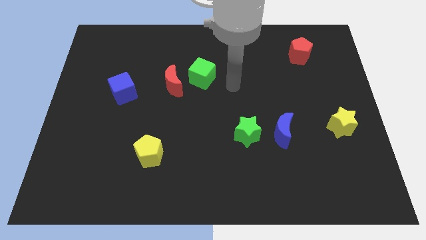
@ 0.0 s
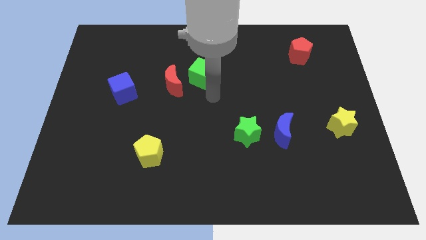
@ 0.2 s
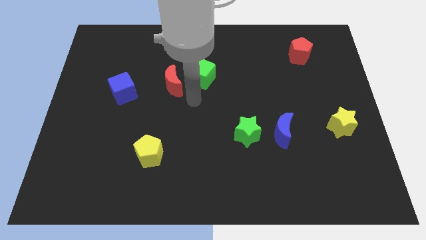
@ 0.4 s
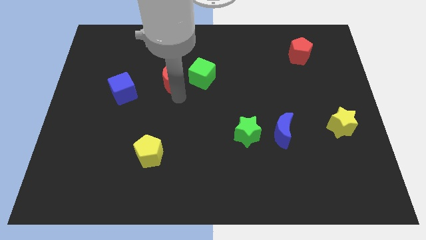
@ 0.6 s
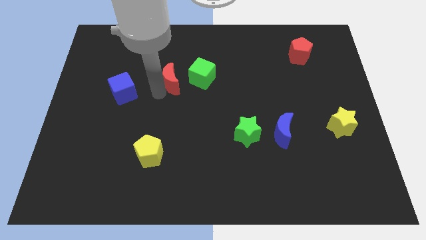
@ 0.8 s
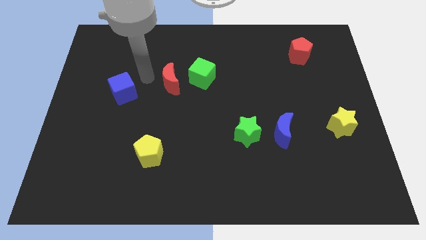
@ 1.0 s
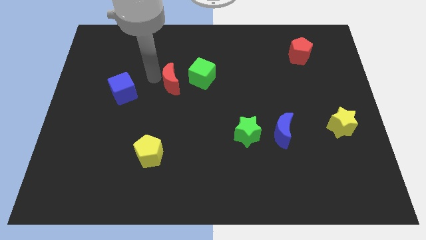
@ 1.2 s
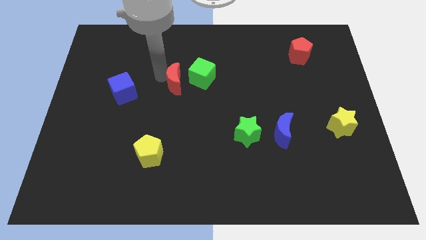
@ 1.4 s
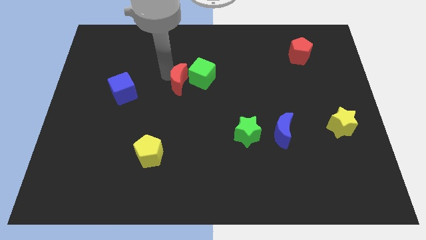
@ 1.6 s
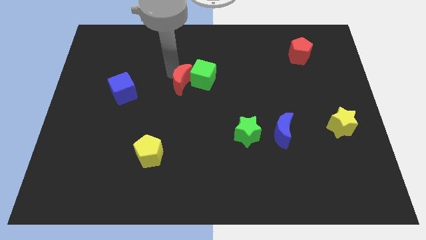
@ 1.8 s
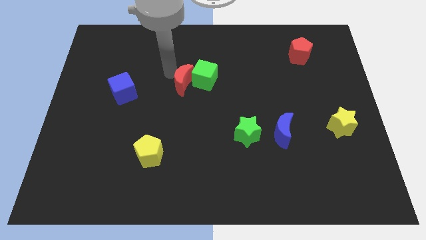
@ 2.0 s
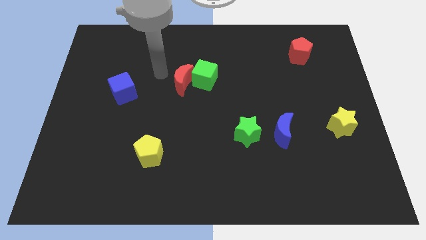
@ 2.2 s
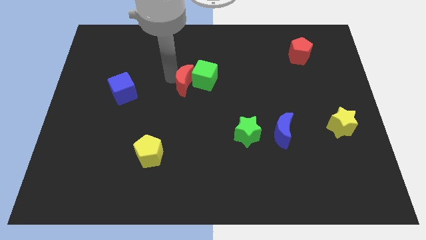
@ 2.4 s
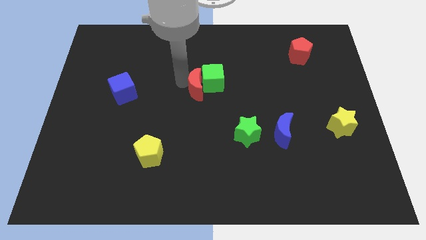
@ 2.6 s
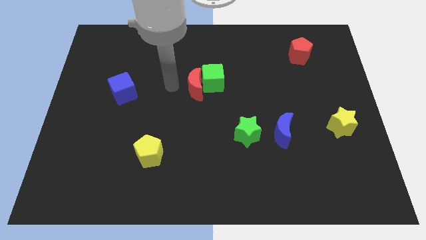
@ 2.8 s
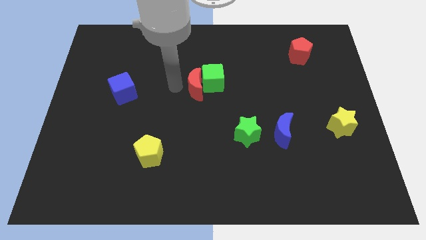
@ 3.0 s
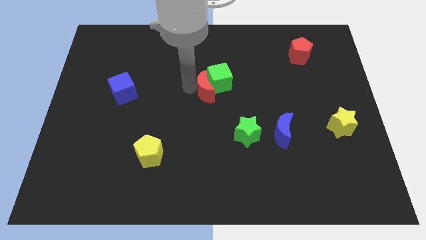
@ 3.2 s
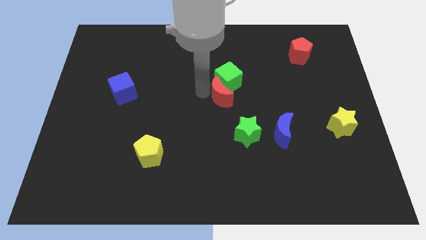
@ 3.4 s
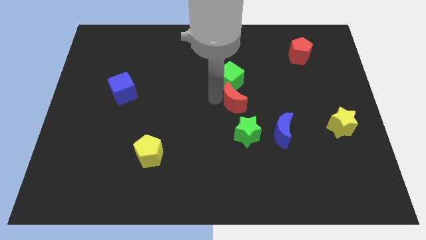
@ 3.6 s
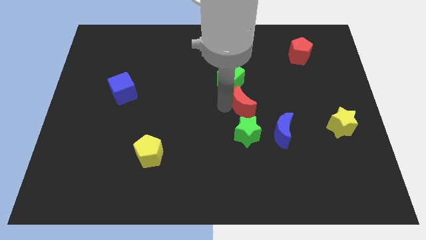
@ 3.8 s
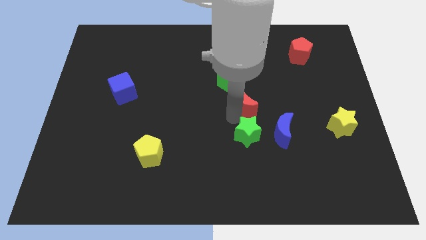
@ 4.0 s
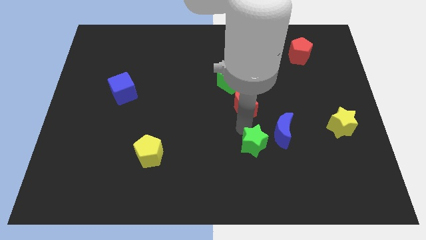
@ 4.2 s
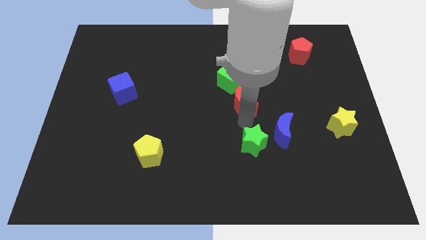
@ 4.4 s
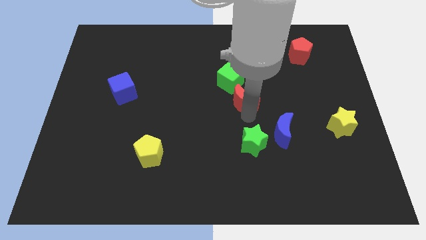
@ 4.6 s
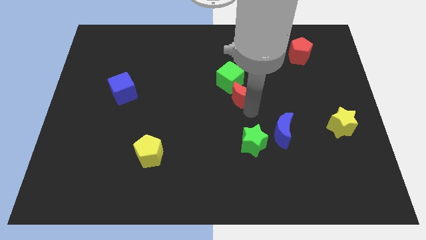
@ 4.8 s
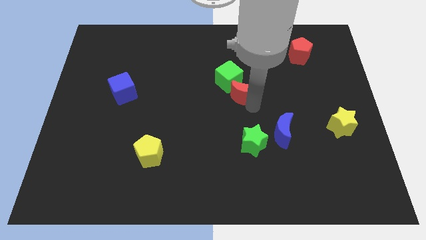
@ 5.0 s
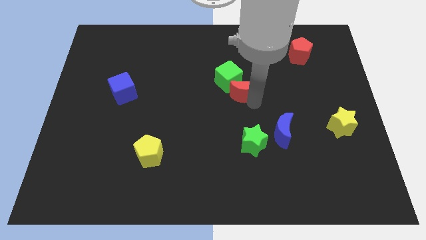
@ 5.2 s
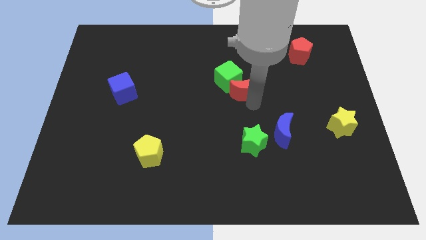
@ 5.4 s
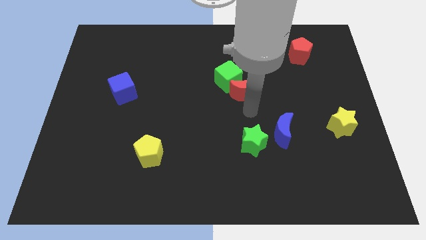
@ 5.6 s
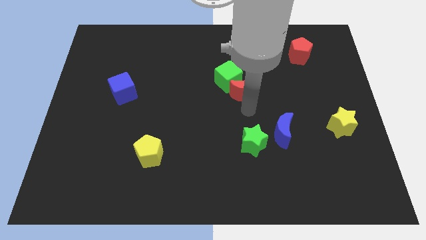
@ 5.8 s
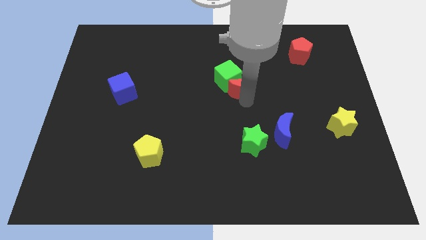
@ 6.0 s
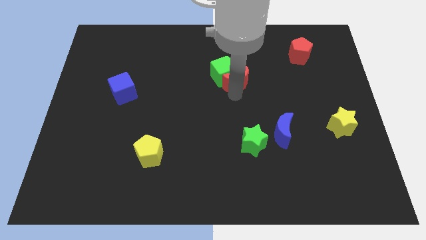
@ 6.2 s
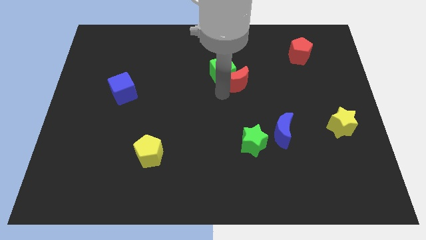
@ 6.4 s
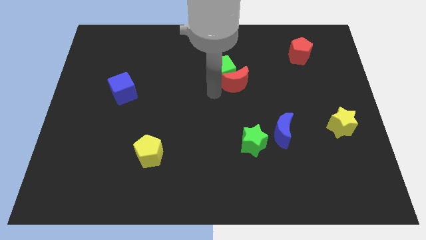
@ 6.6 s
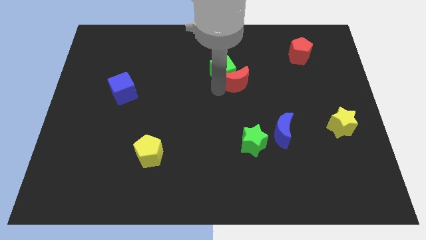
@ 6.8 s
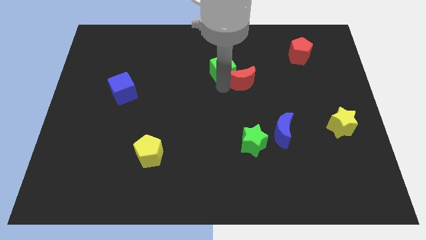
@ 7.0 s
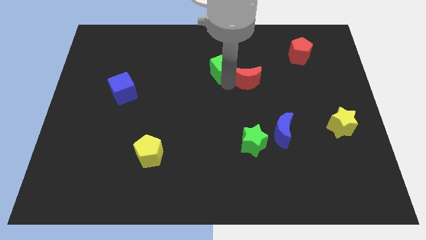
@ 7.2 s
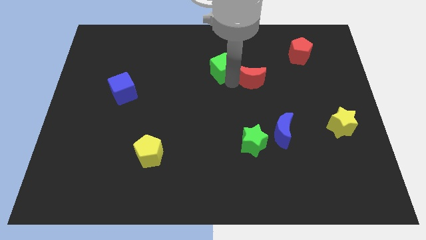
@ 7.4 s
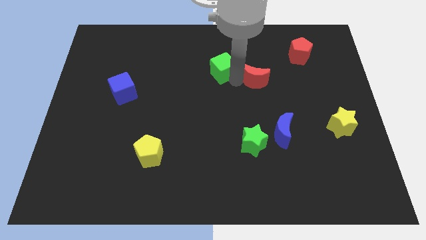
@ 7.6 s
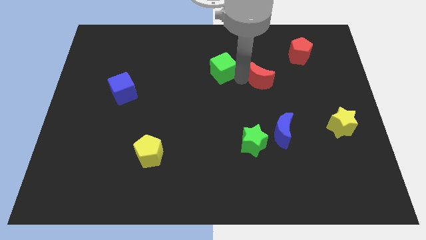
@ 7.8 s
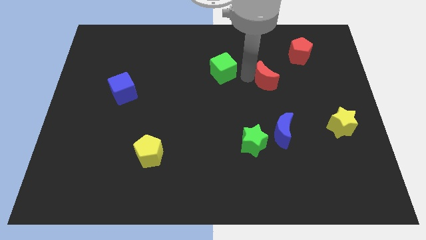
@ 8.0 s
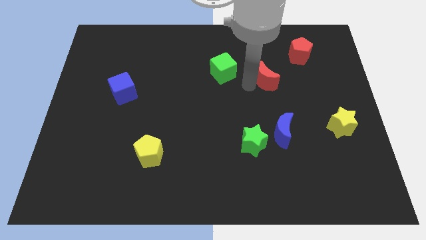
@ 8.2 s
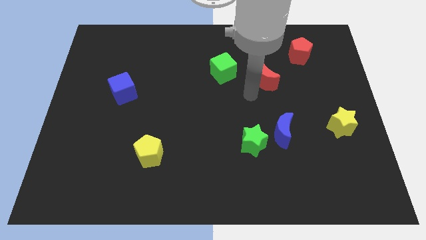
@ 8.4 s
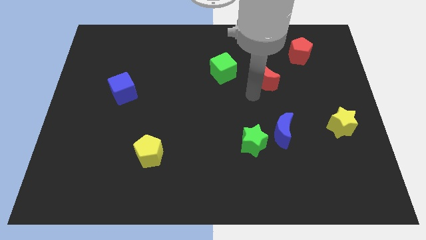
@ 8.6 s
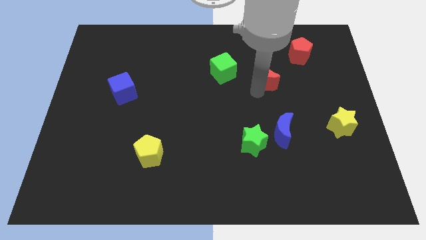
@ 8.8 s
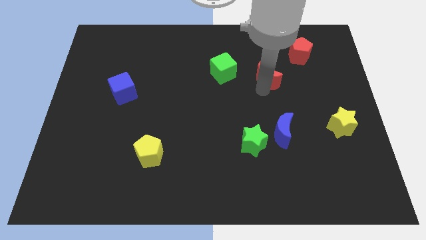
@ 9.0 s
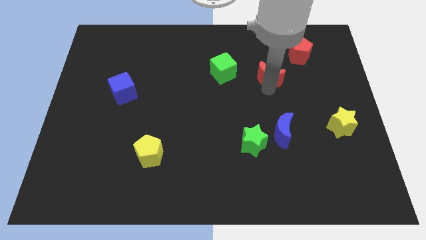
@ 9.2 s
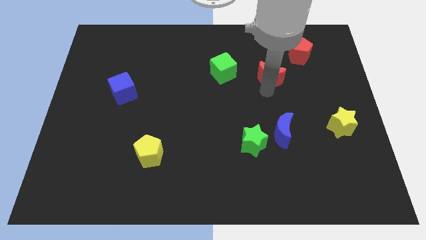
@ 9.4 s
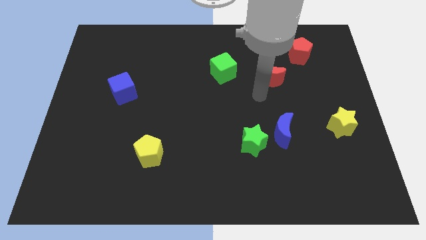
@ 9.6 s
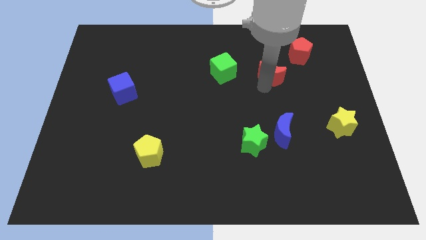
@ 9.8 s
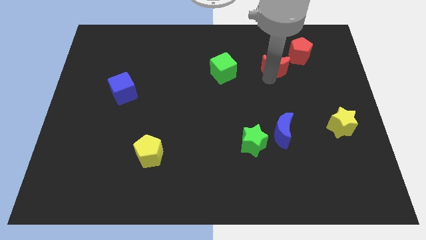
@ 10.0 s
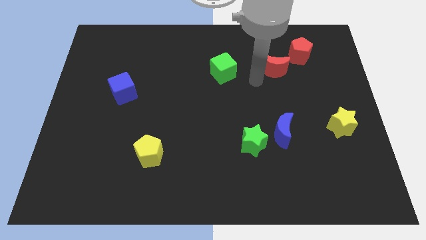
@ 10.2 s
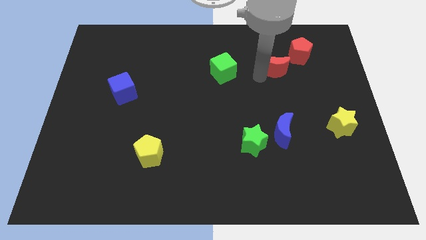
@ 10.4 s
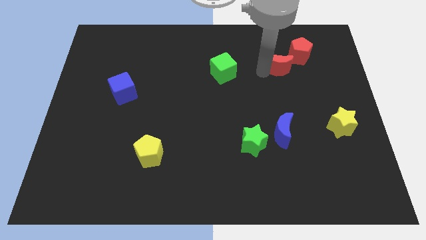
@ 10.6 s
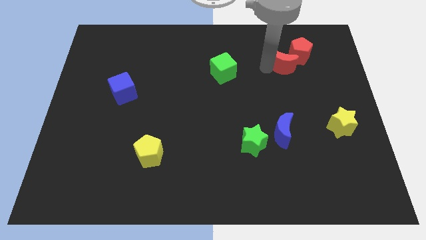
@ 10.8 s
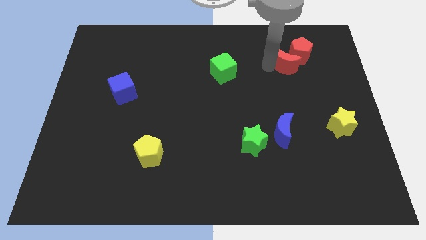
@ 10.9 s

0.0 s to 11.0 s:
move the red moon to the red pentagon

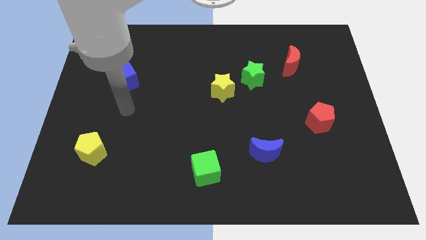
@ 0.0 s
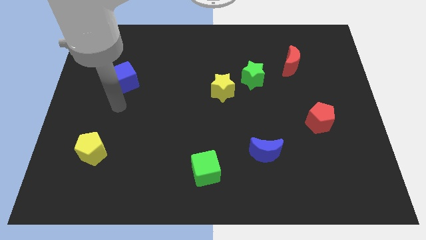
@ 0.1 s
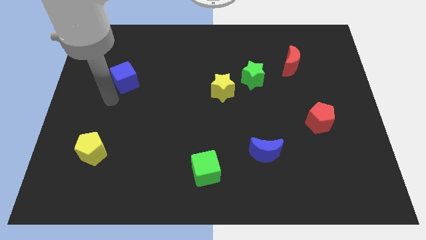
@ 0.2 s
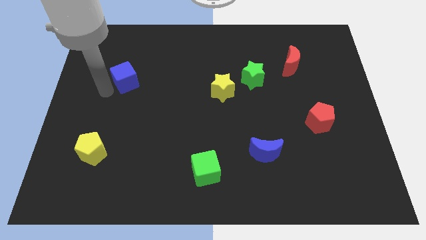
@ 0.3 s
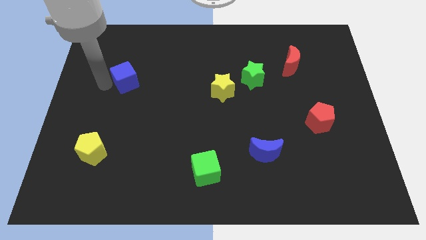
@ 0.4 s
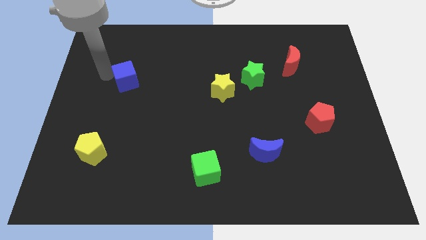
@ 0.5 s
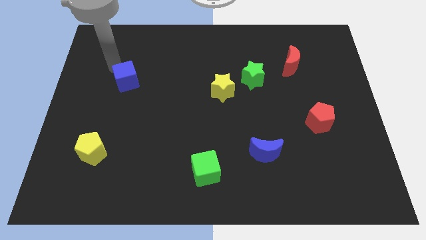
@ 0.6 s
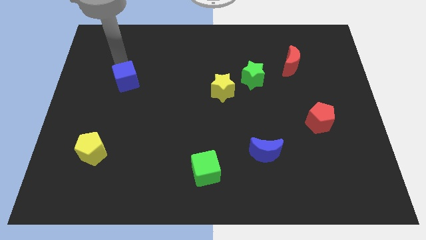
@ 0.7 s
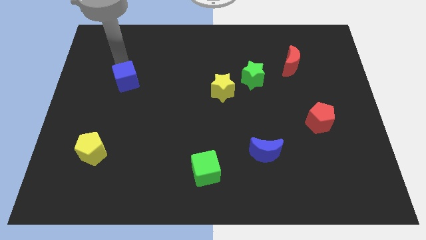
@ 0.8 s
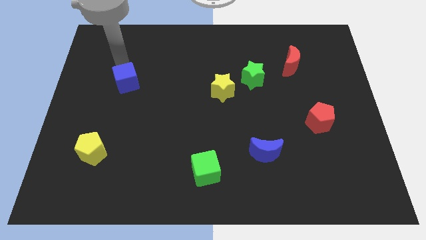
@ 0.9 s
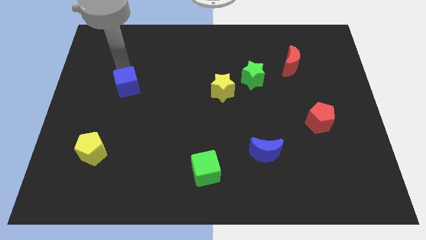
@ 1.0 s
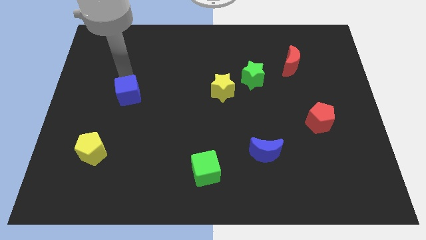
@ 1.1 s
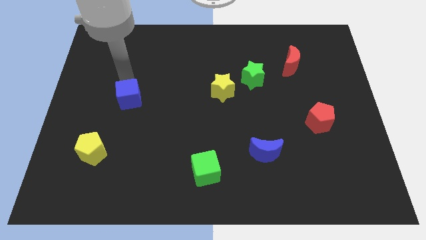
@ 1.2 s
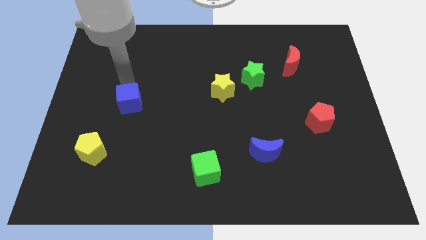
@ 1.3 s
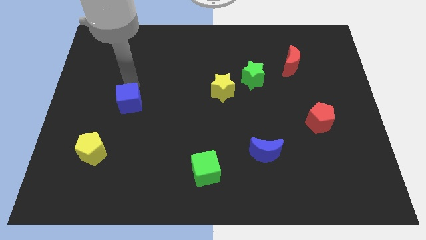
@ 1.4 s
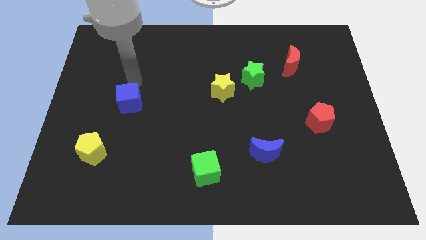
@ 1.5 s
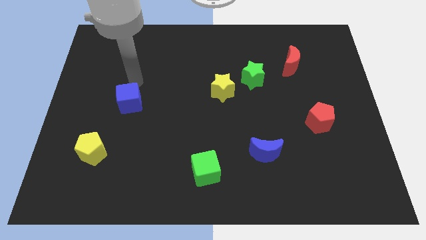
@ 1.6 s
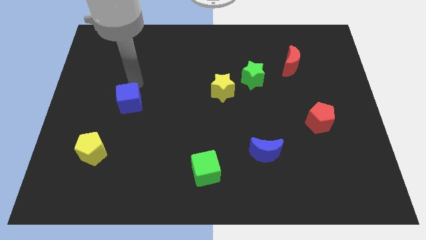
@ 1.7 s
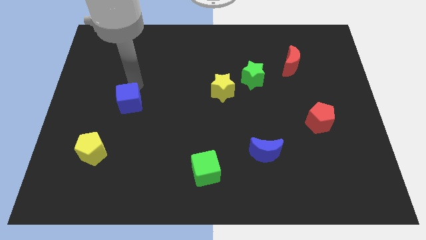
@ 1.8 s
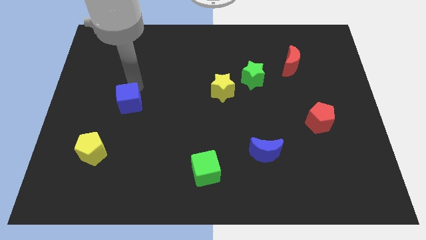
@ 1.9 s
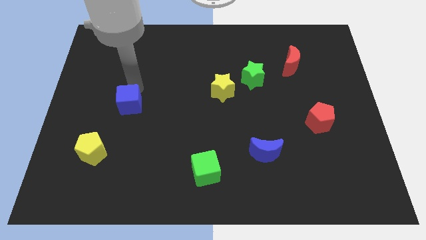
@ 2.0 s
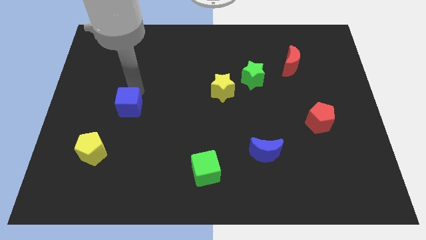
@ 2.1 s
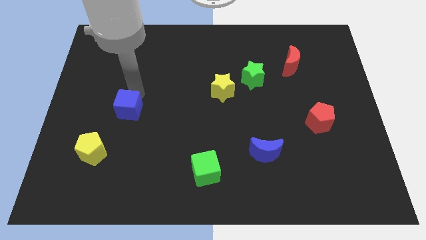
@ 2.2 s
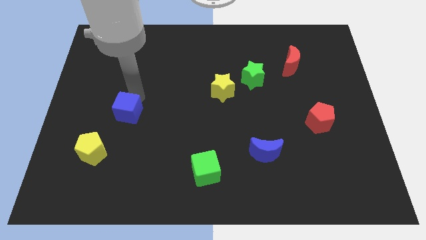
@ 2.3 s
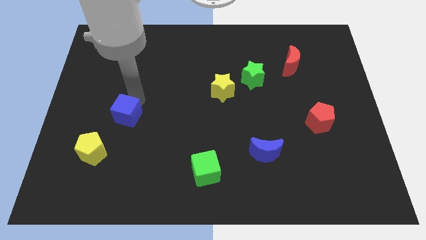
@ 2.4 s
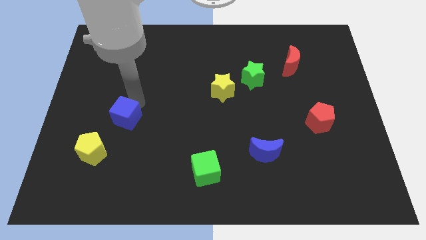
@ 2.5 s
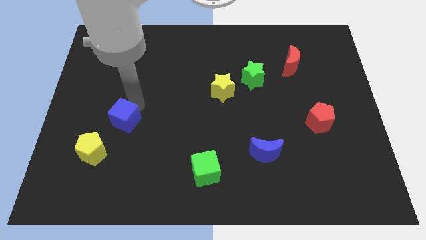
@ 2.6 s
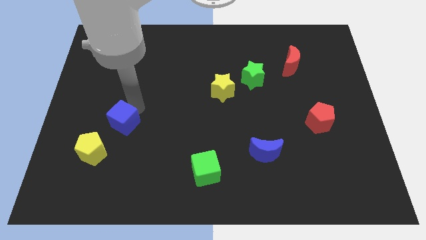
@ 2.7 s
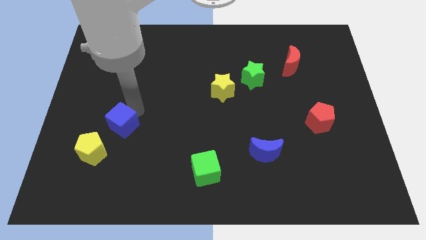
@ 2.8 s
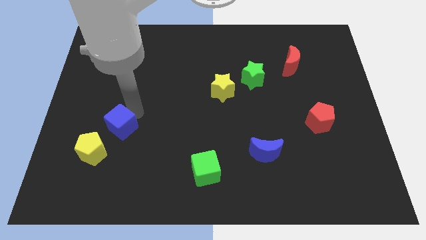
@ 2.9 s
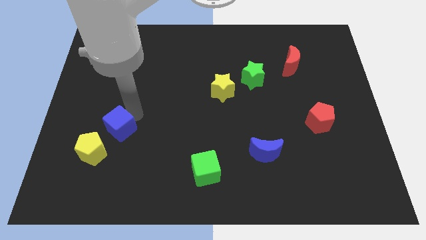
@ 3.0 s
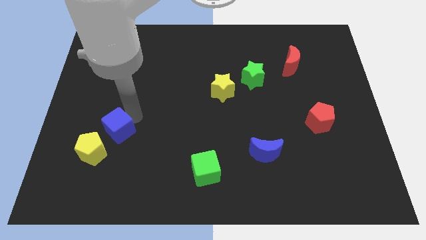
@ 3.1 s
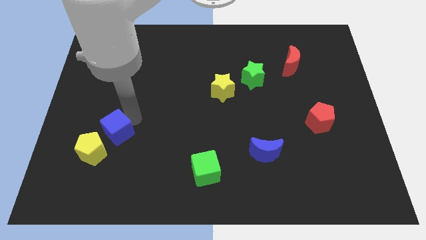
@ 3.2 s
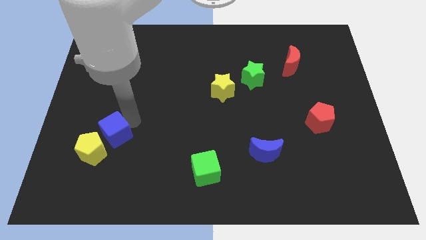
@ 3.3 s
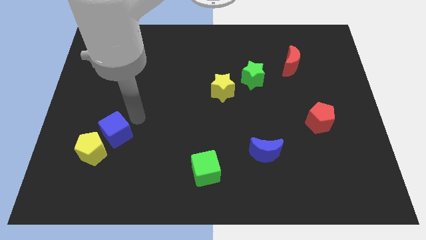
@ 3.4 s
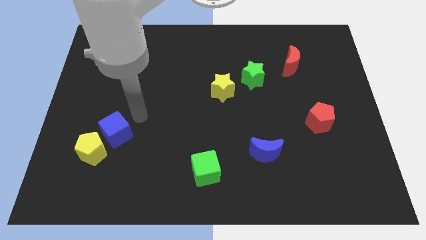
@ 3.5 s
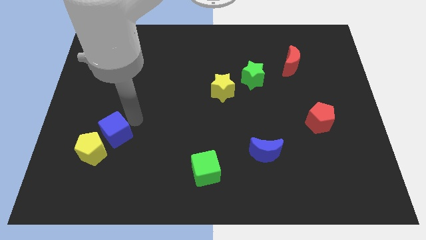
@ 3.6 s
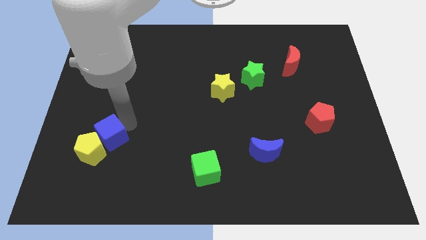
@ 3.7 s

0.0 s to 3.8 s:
slide the blue cube next to the yellow pentagon
